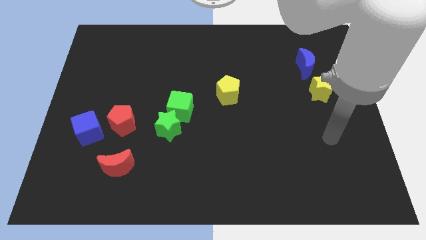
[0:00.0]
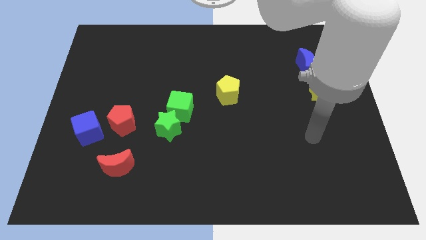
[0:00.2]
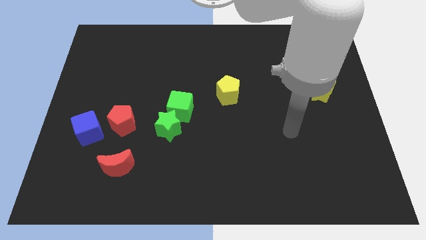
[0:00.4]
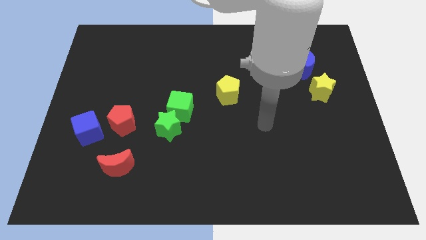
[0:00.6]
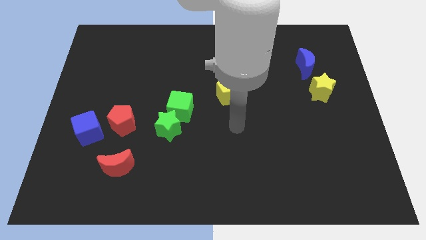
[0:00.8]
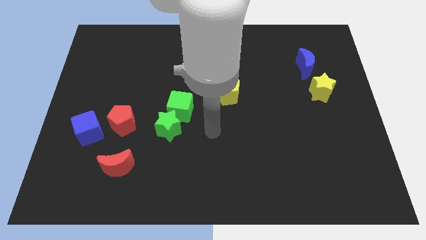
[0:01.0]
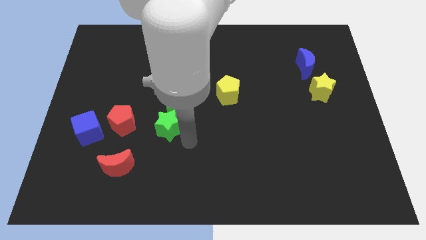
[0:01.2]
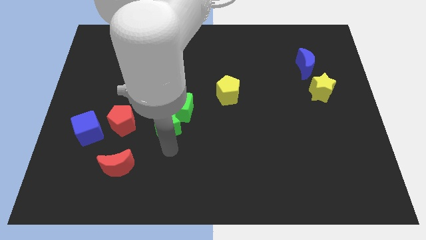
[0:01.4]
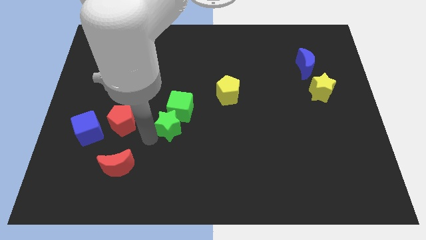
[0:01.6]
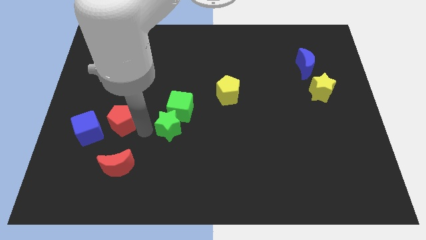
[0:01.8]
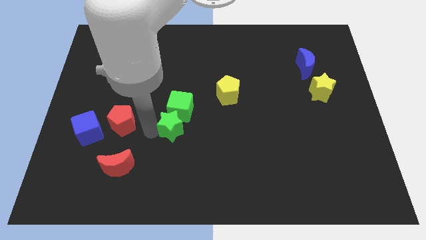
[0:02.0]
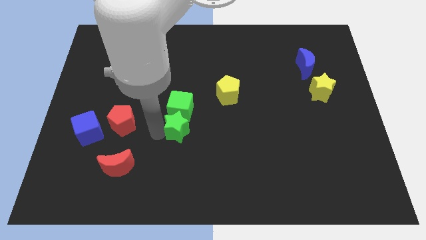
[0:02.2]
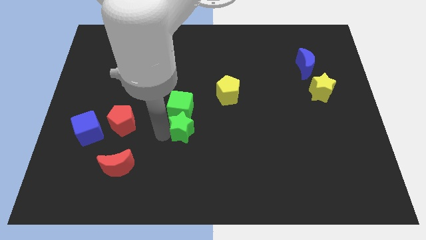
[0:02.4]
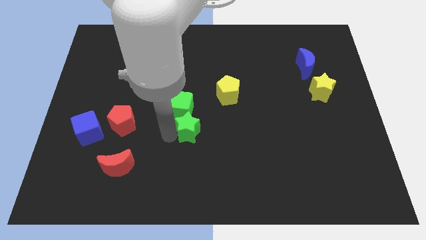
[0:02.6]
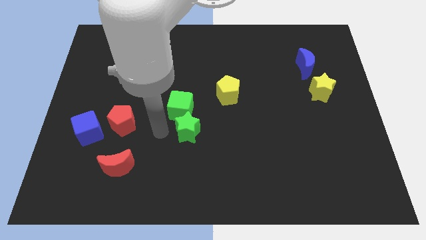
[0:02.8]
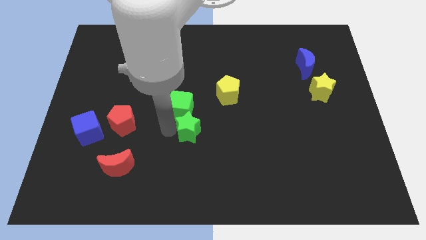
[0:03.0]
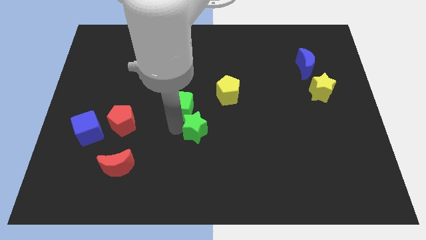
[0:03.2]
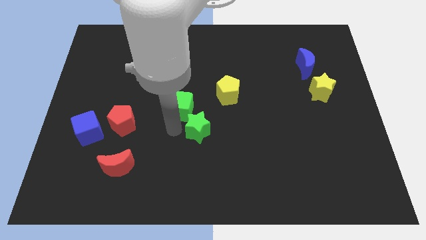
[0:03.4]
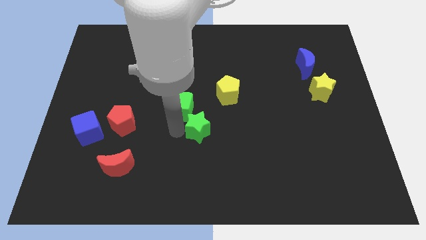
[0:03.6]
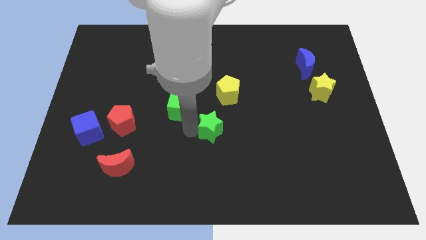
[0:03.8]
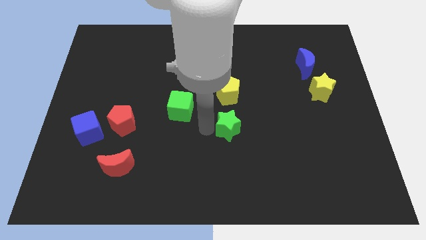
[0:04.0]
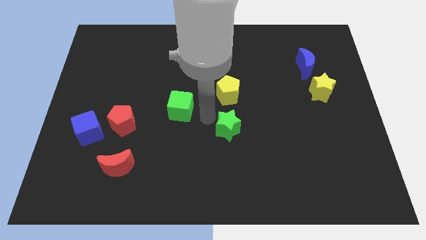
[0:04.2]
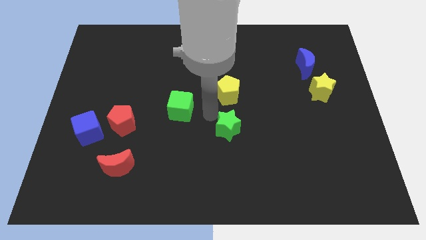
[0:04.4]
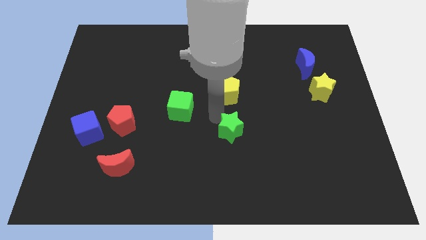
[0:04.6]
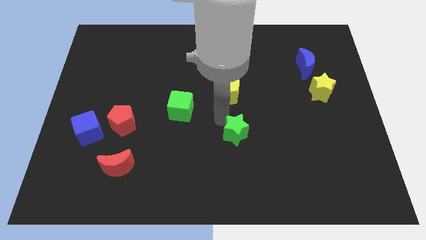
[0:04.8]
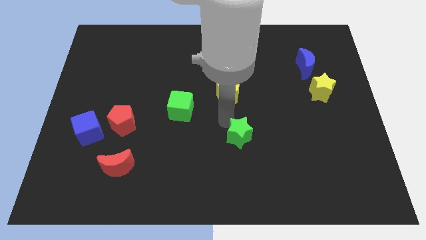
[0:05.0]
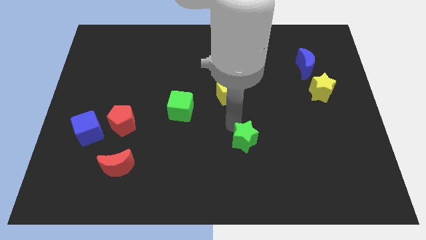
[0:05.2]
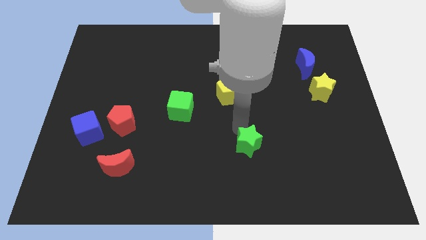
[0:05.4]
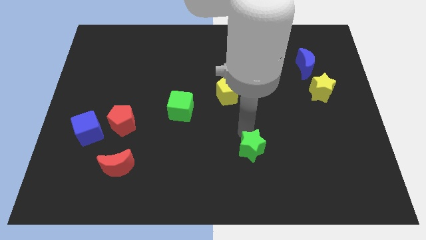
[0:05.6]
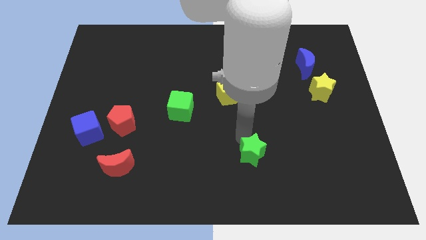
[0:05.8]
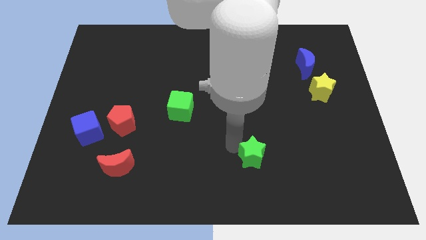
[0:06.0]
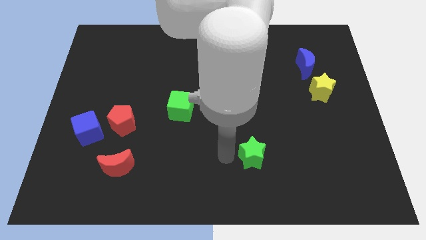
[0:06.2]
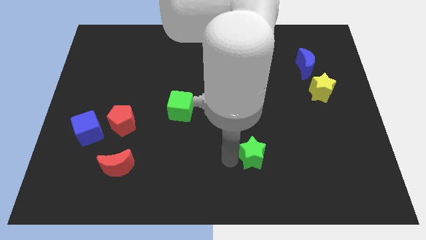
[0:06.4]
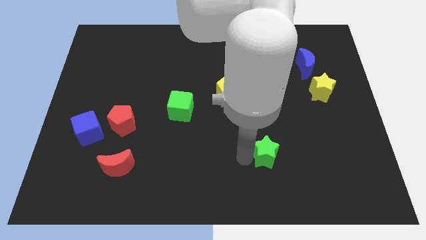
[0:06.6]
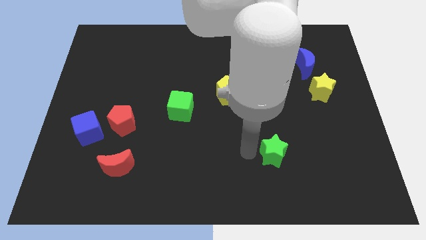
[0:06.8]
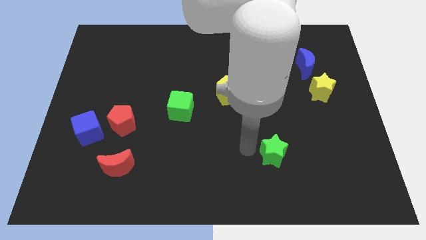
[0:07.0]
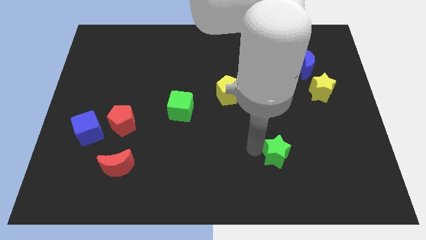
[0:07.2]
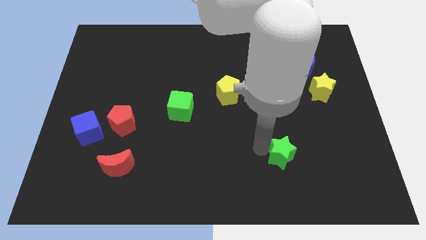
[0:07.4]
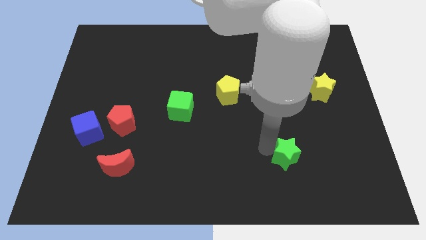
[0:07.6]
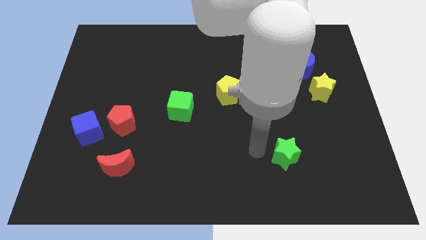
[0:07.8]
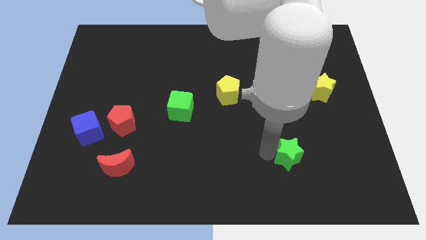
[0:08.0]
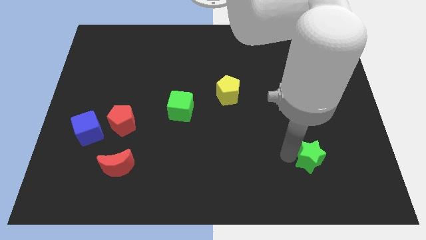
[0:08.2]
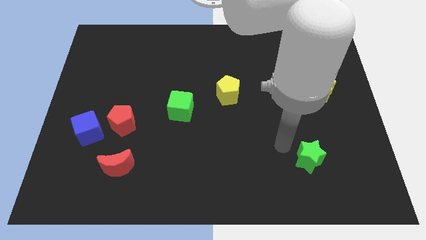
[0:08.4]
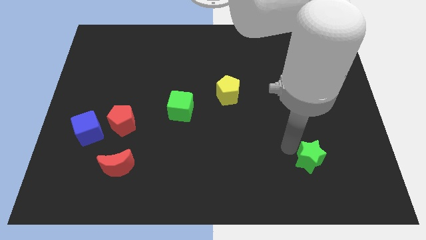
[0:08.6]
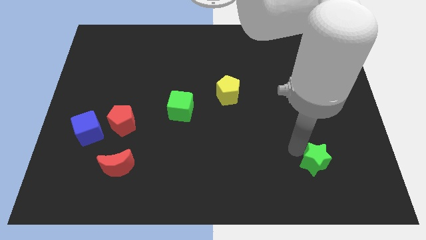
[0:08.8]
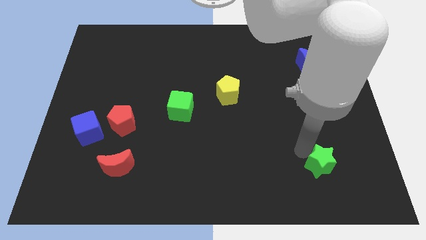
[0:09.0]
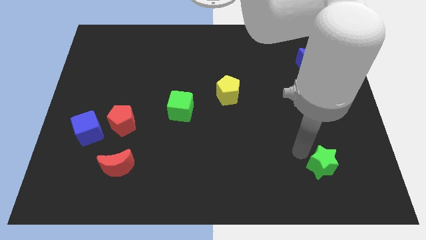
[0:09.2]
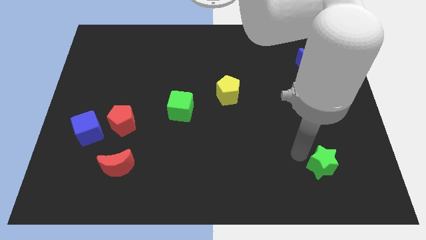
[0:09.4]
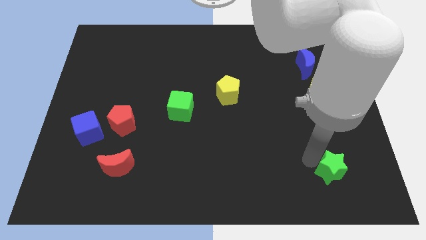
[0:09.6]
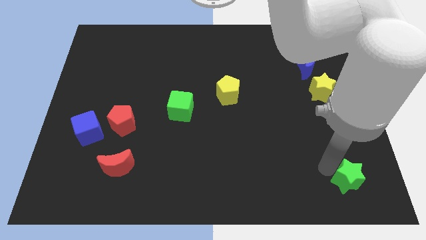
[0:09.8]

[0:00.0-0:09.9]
push the green star to the bottom right of the board

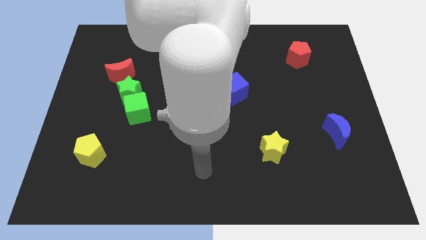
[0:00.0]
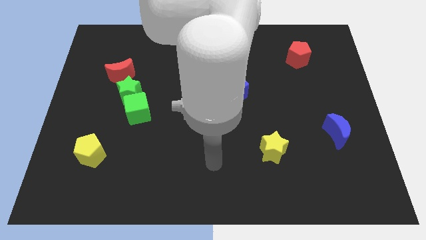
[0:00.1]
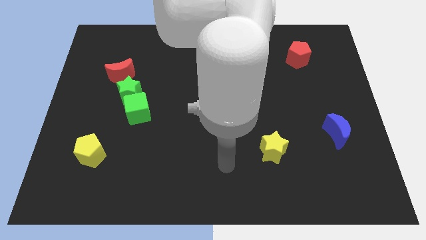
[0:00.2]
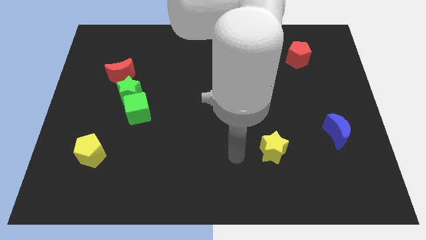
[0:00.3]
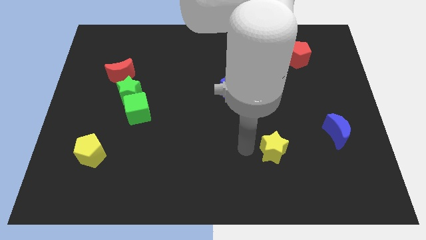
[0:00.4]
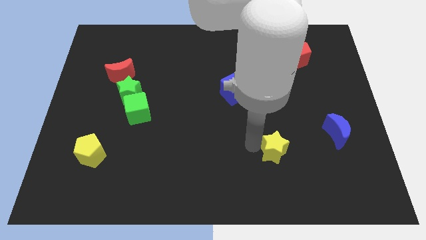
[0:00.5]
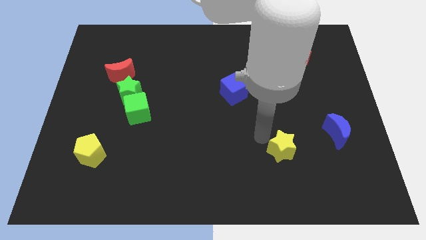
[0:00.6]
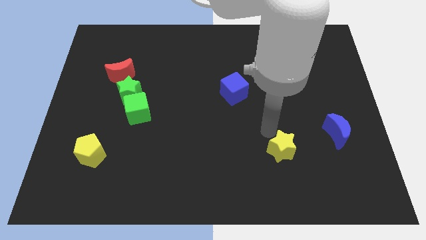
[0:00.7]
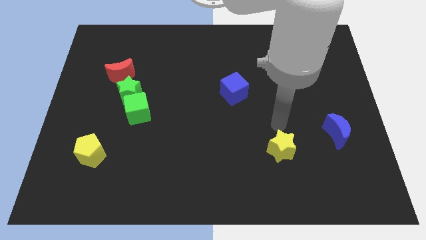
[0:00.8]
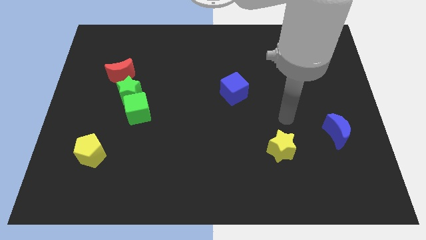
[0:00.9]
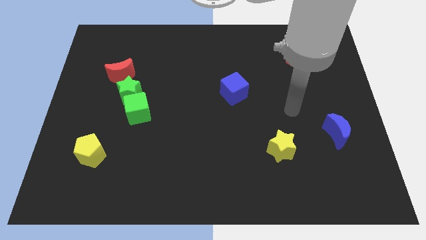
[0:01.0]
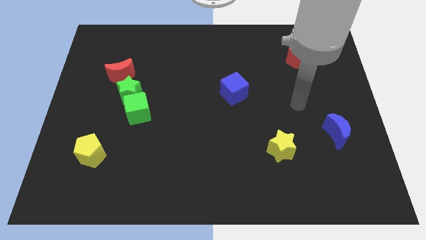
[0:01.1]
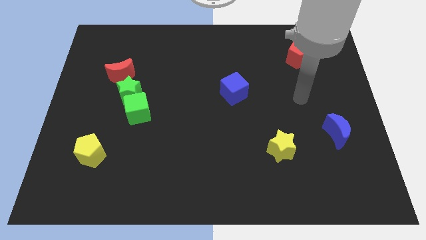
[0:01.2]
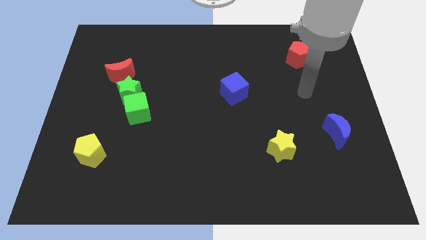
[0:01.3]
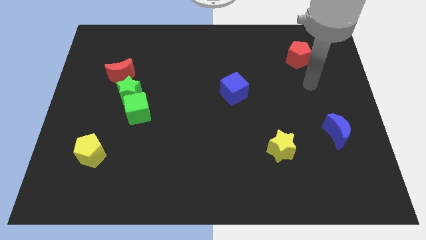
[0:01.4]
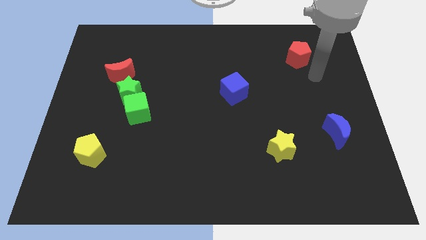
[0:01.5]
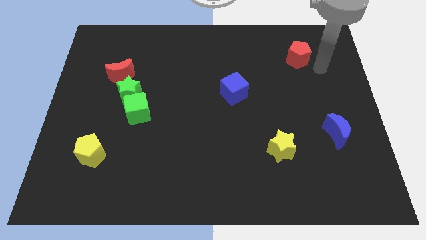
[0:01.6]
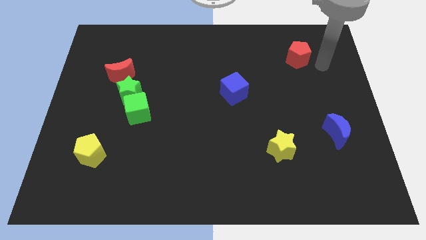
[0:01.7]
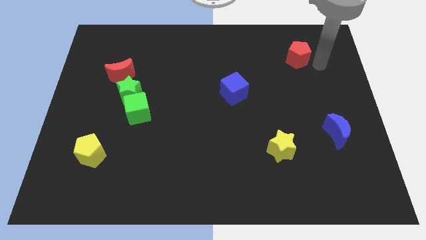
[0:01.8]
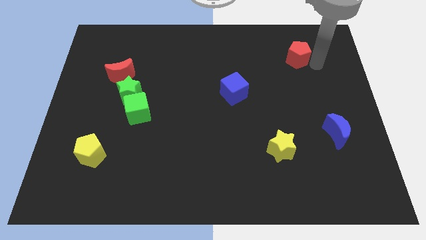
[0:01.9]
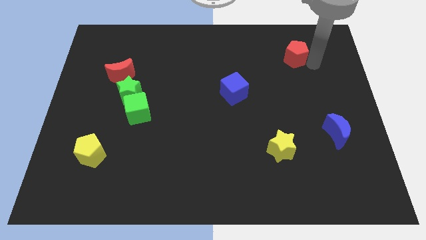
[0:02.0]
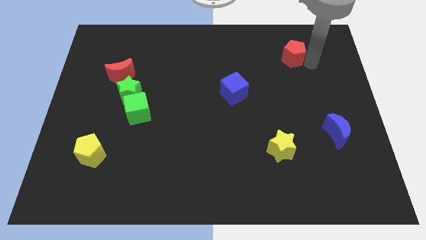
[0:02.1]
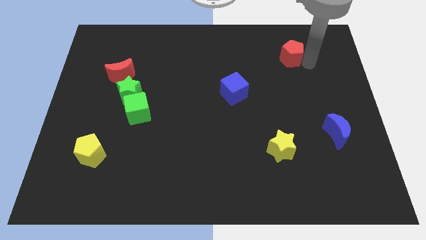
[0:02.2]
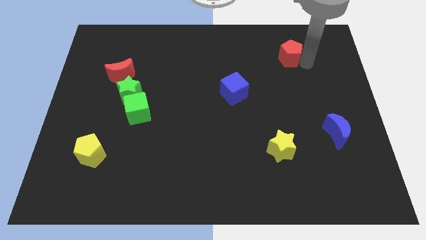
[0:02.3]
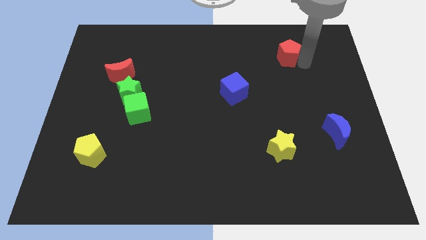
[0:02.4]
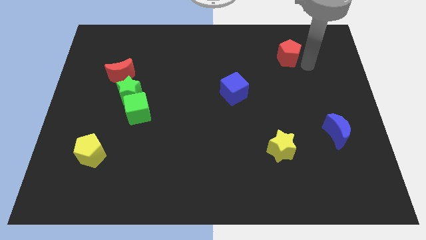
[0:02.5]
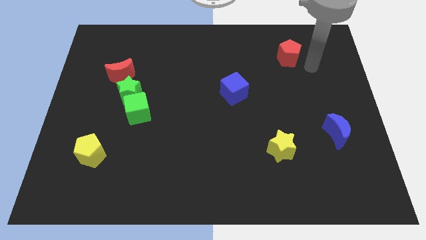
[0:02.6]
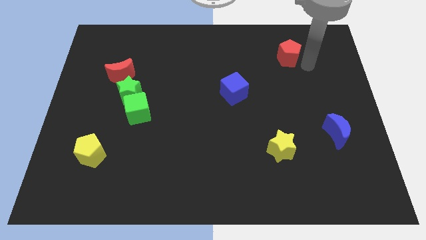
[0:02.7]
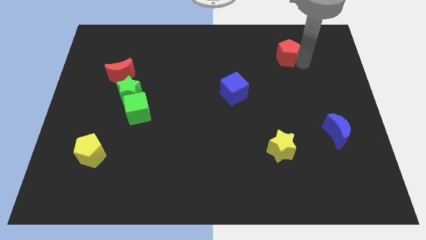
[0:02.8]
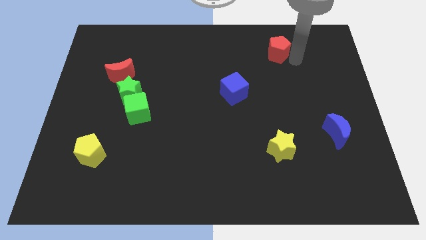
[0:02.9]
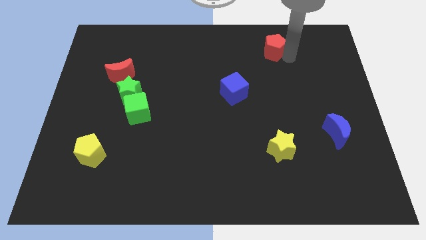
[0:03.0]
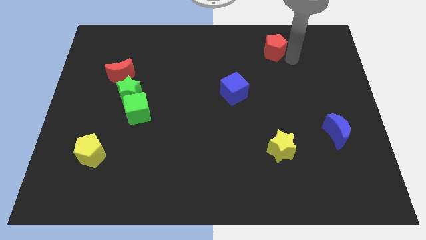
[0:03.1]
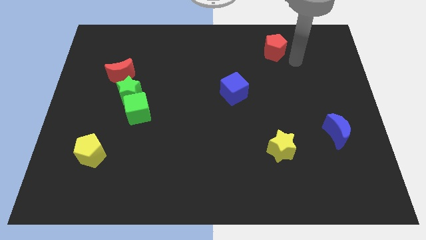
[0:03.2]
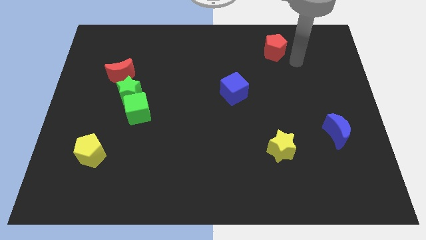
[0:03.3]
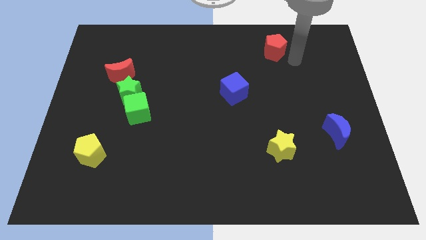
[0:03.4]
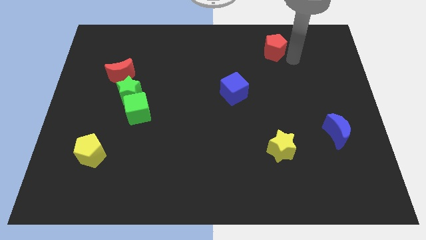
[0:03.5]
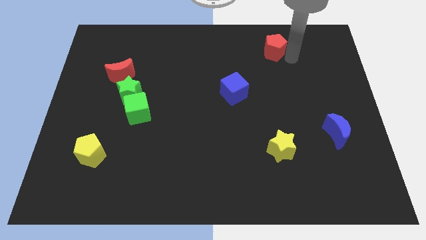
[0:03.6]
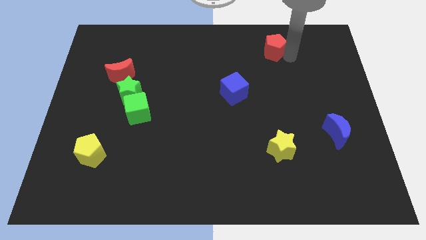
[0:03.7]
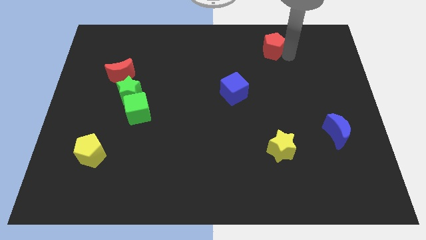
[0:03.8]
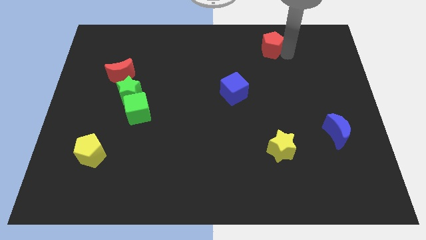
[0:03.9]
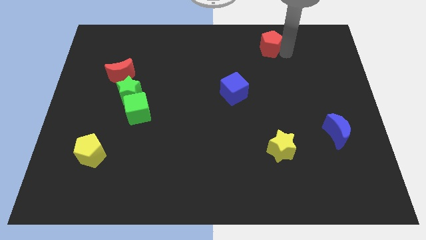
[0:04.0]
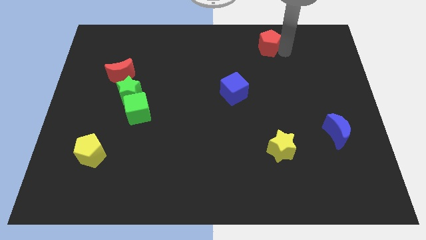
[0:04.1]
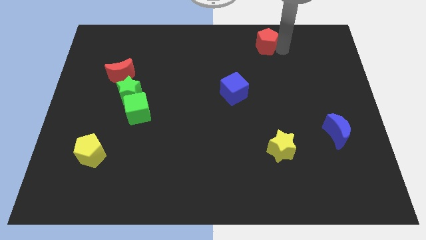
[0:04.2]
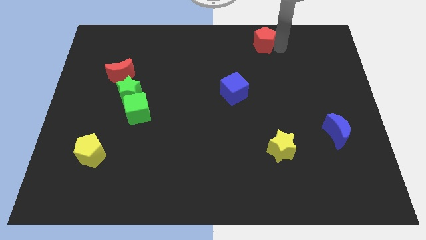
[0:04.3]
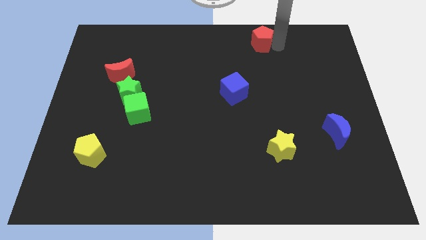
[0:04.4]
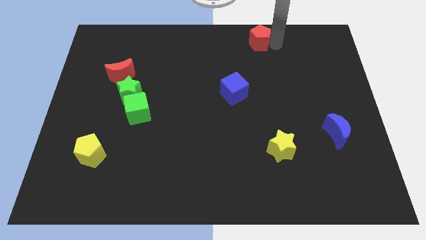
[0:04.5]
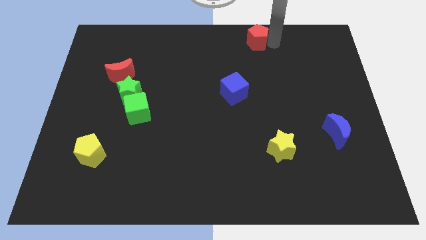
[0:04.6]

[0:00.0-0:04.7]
push the red pentagon to the towards your base
